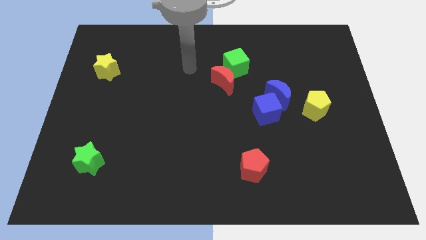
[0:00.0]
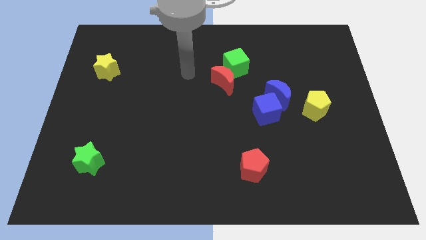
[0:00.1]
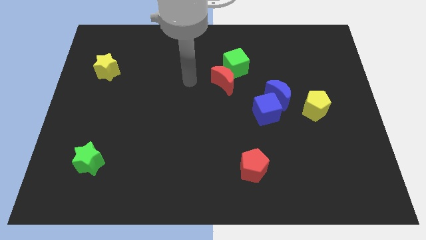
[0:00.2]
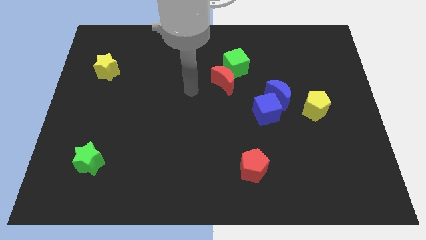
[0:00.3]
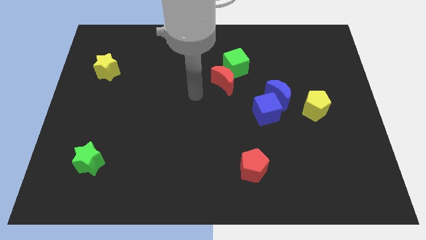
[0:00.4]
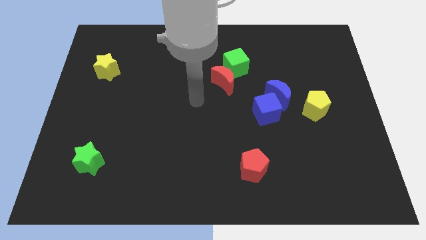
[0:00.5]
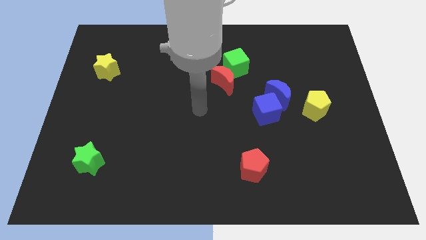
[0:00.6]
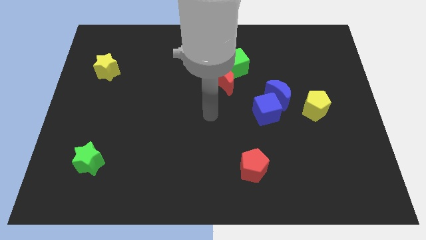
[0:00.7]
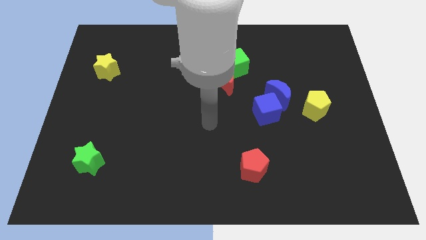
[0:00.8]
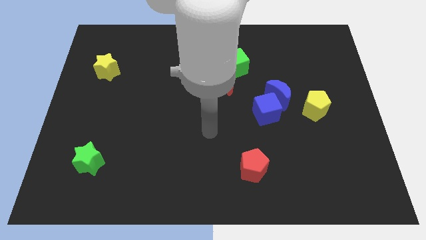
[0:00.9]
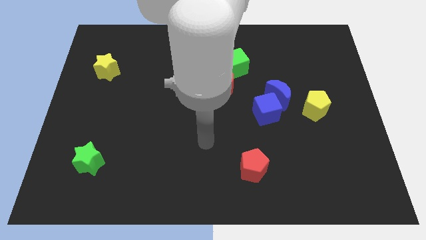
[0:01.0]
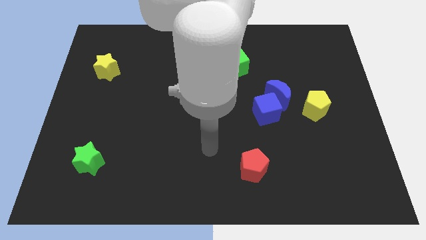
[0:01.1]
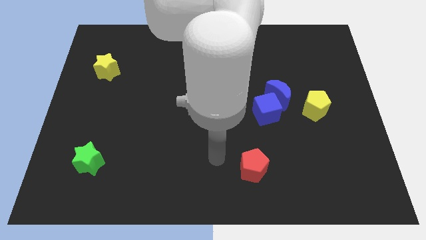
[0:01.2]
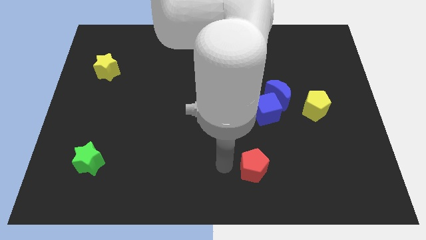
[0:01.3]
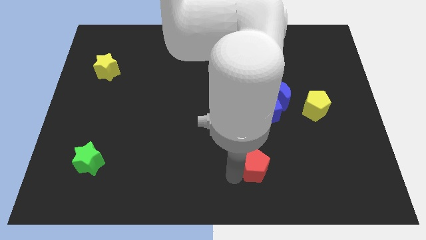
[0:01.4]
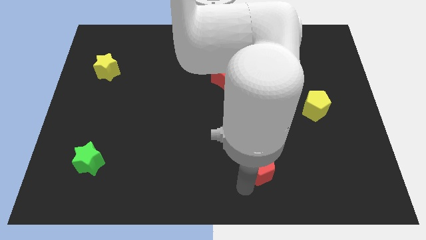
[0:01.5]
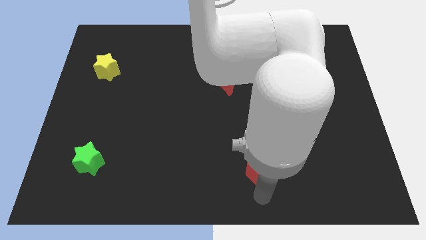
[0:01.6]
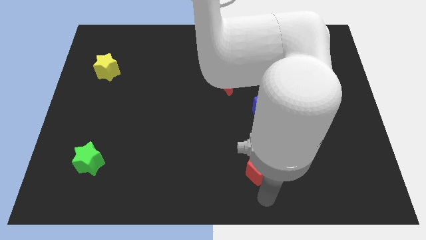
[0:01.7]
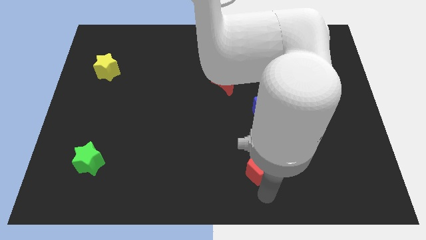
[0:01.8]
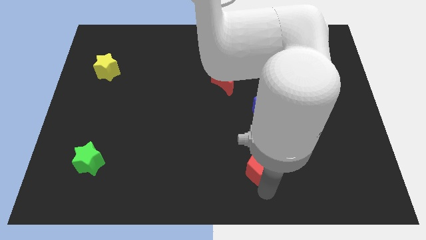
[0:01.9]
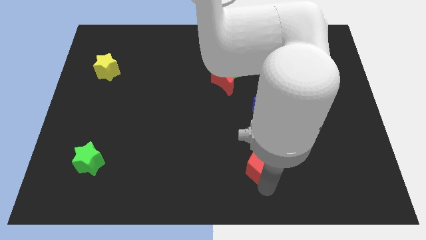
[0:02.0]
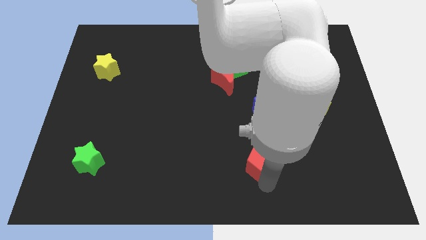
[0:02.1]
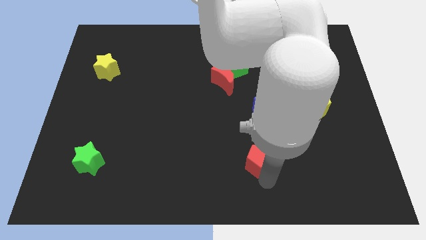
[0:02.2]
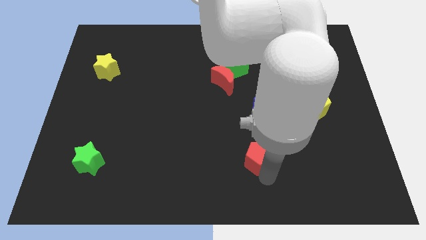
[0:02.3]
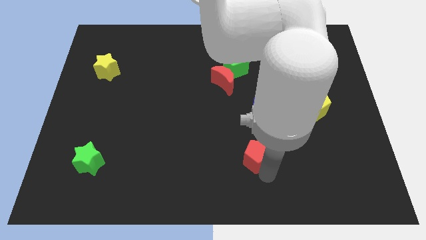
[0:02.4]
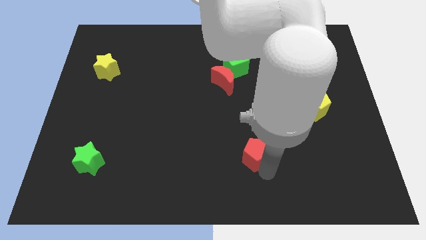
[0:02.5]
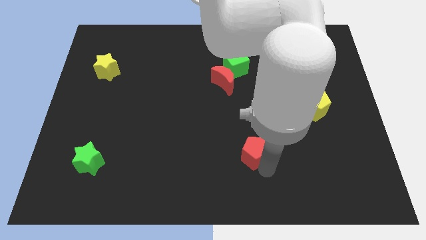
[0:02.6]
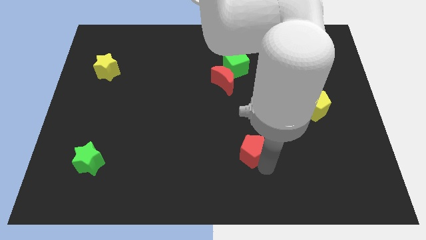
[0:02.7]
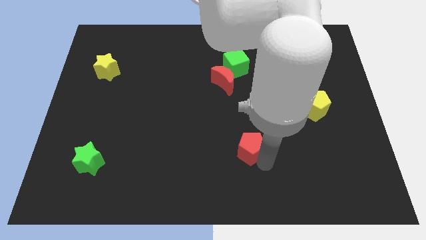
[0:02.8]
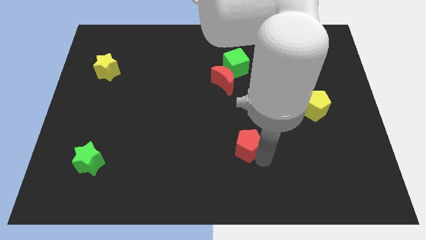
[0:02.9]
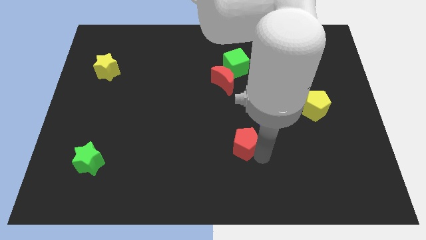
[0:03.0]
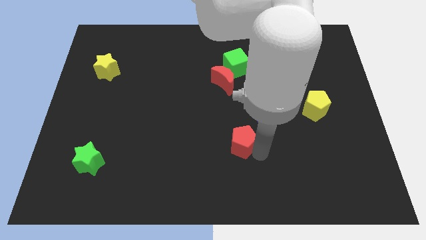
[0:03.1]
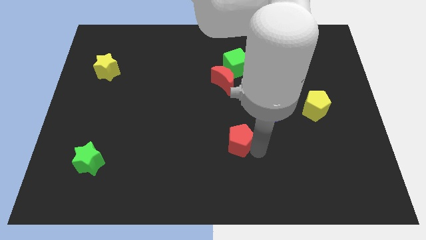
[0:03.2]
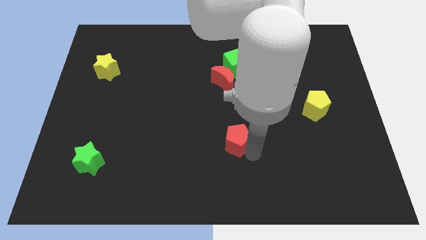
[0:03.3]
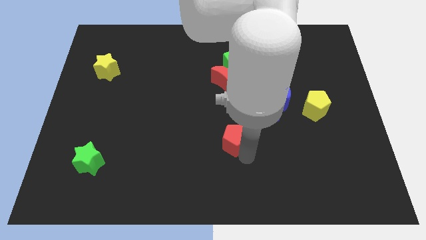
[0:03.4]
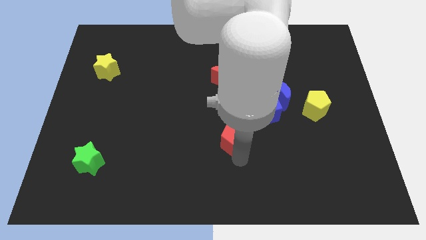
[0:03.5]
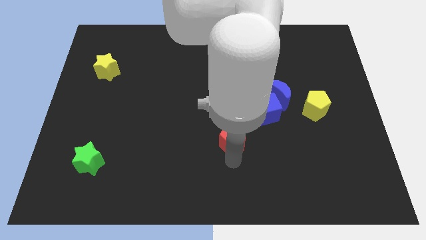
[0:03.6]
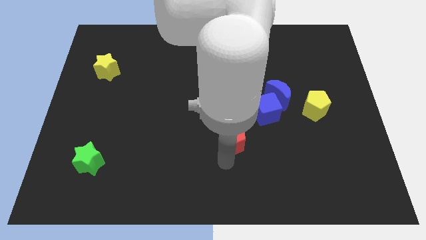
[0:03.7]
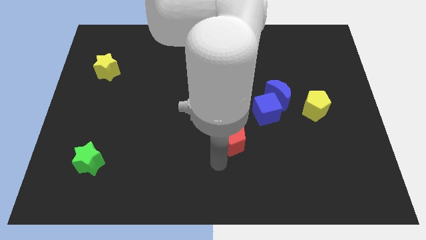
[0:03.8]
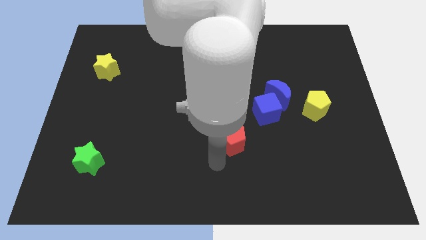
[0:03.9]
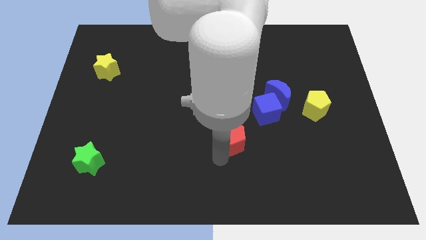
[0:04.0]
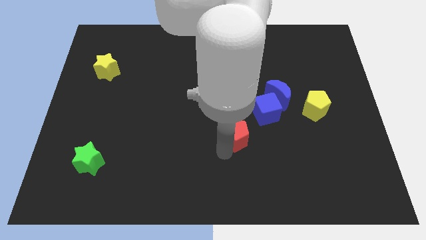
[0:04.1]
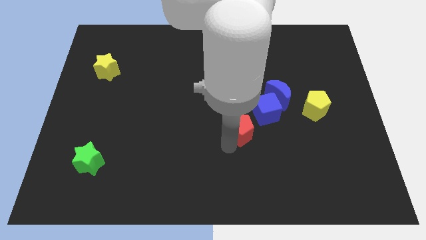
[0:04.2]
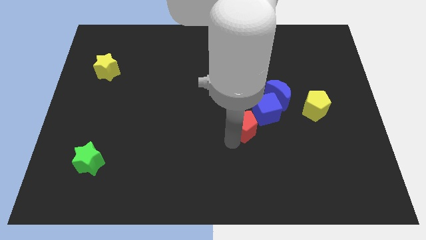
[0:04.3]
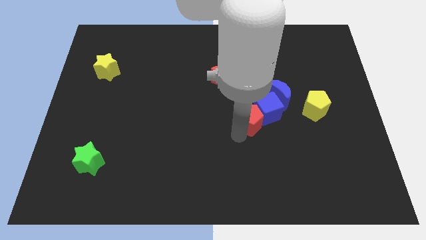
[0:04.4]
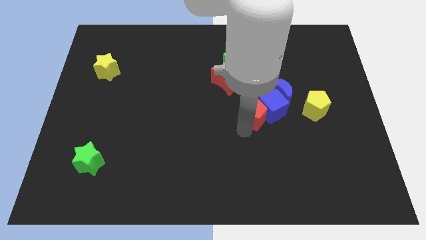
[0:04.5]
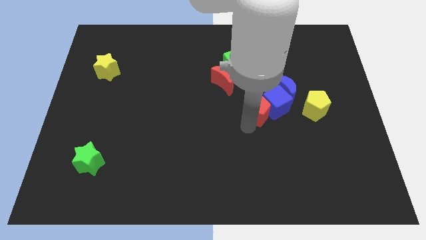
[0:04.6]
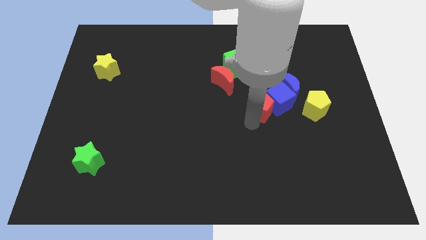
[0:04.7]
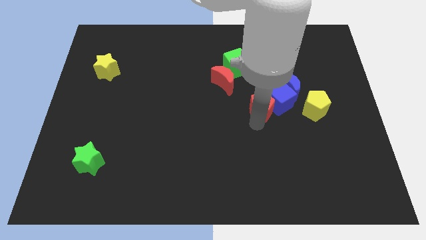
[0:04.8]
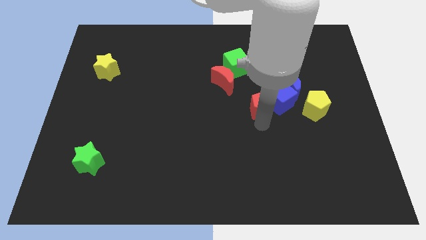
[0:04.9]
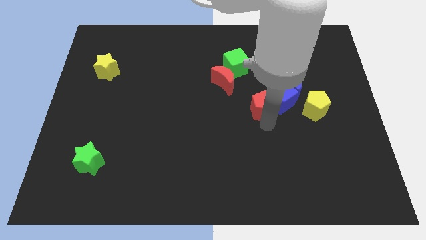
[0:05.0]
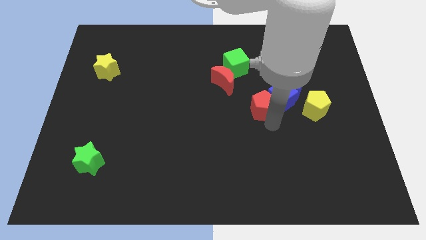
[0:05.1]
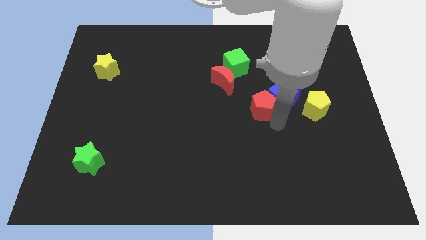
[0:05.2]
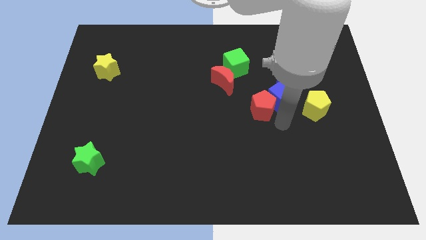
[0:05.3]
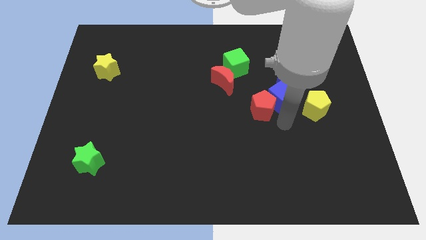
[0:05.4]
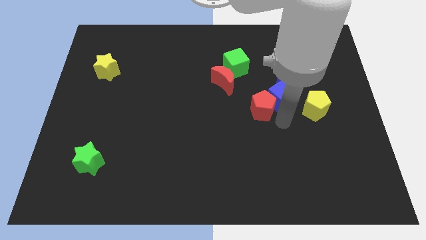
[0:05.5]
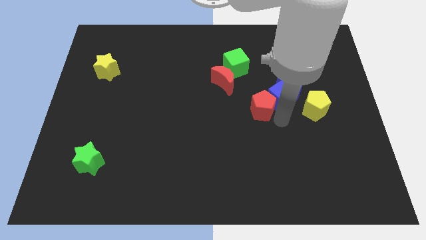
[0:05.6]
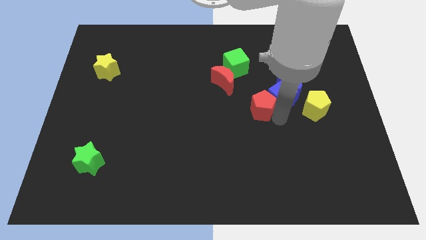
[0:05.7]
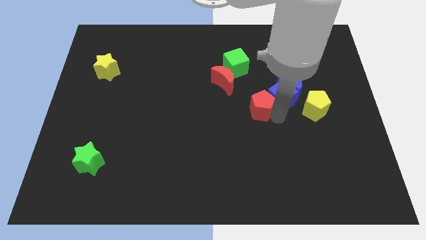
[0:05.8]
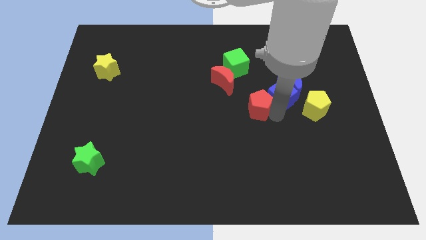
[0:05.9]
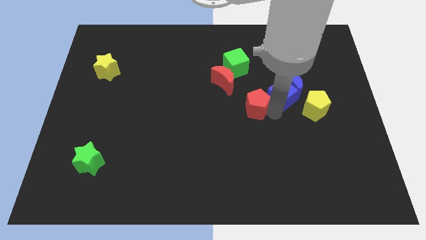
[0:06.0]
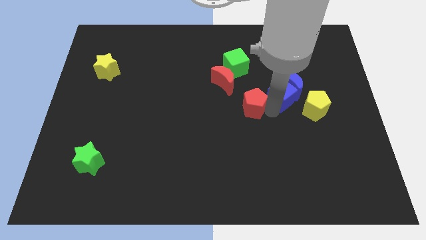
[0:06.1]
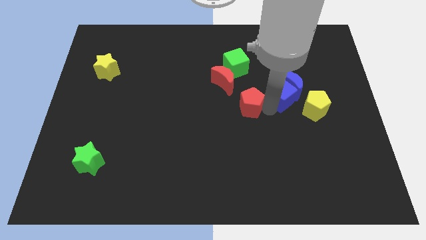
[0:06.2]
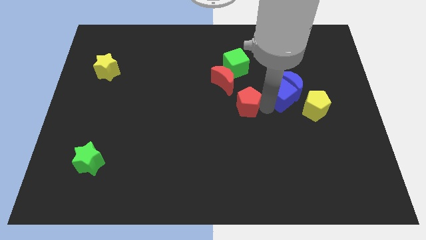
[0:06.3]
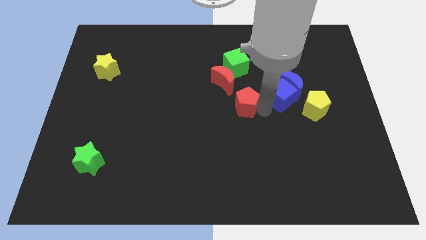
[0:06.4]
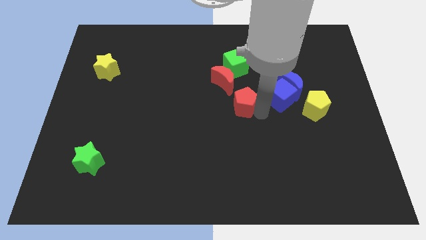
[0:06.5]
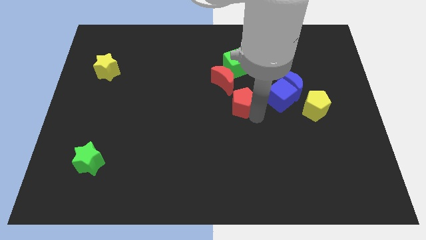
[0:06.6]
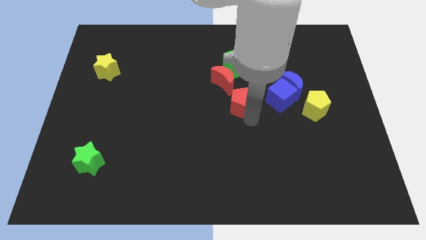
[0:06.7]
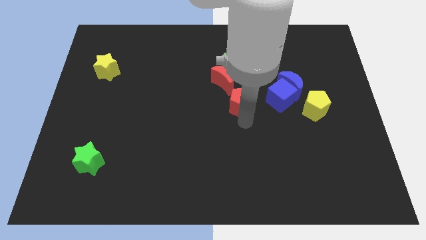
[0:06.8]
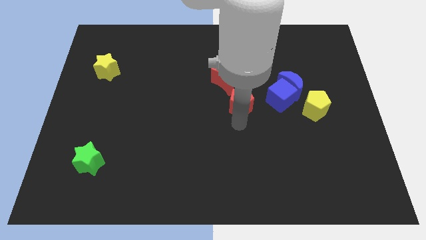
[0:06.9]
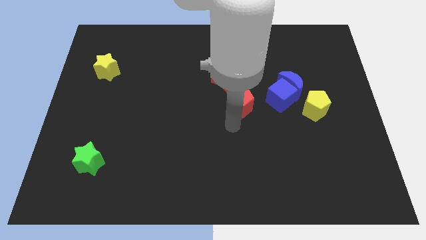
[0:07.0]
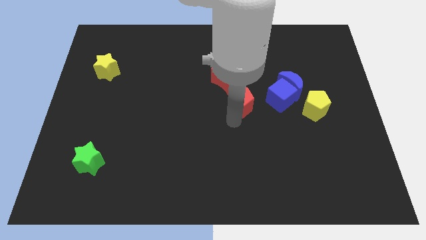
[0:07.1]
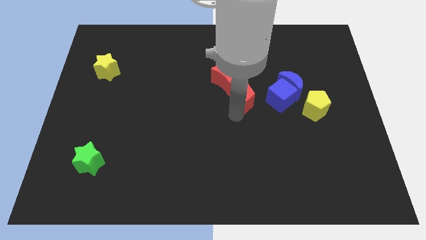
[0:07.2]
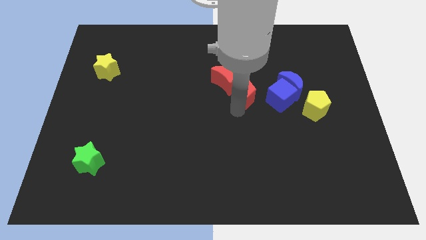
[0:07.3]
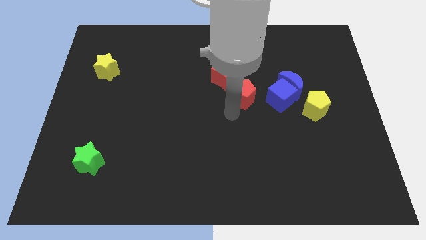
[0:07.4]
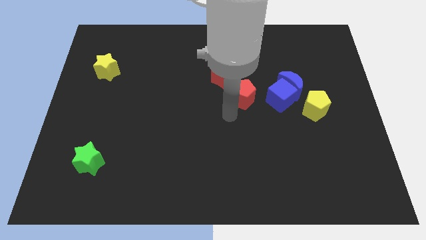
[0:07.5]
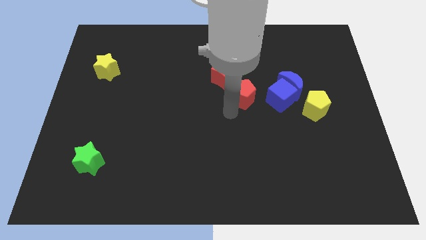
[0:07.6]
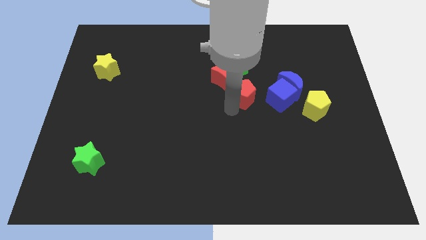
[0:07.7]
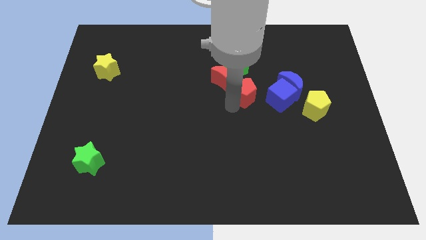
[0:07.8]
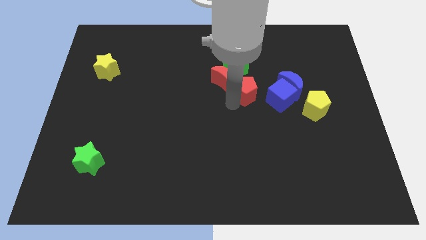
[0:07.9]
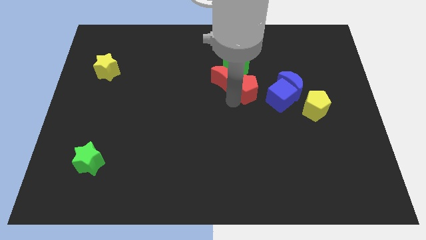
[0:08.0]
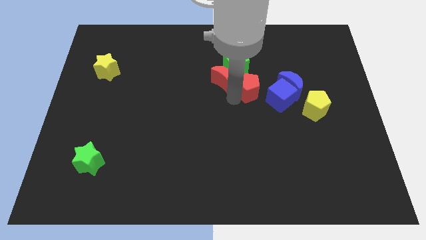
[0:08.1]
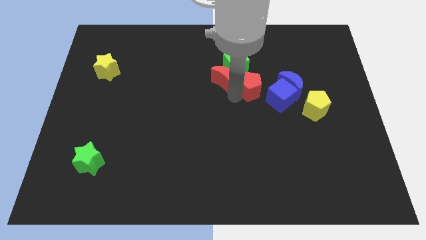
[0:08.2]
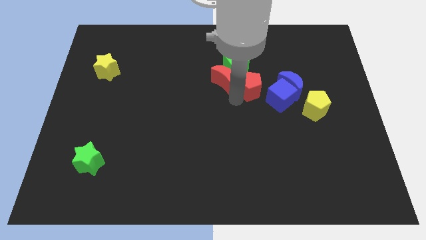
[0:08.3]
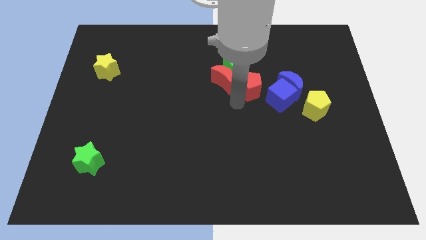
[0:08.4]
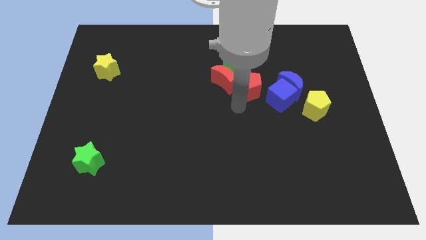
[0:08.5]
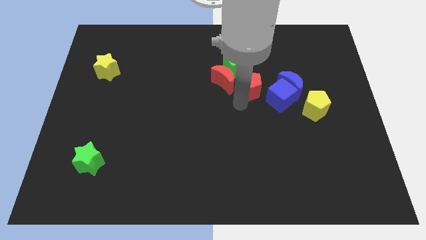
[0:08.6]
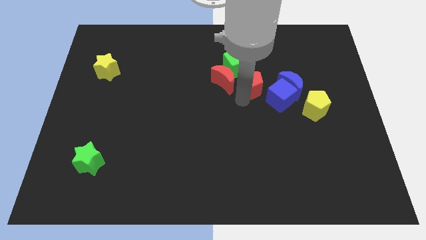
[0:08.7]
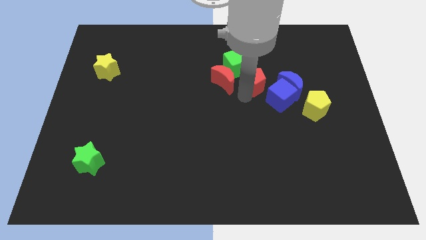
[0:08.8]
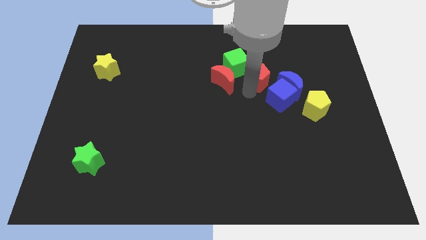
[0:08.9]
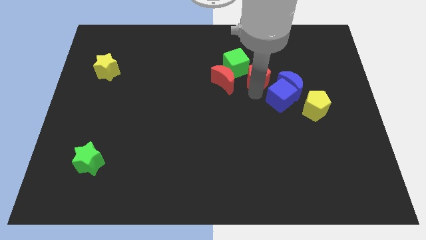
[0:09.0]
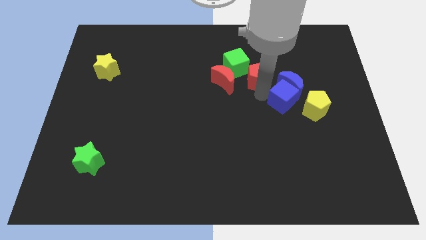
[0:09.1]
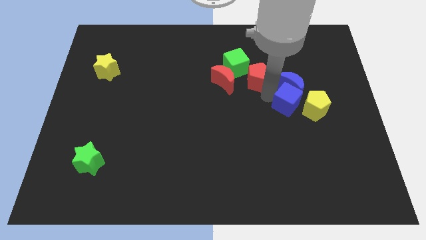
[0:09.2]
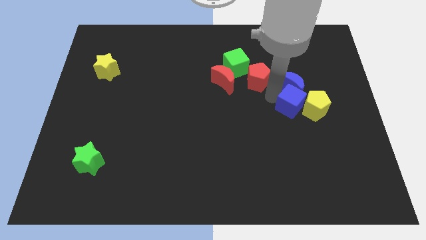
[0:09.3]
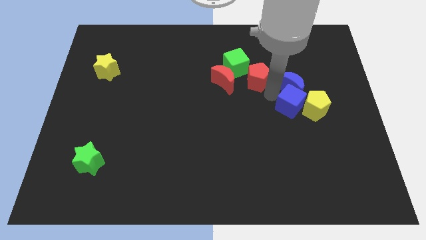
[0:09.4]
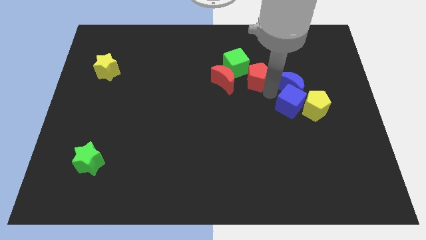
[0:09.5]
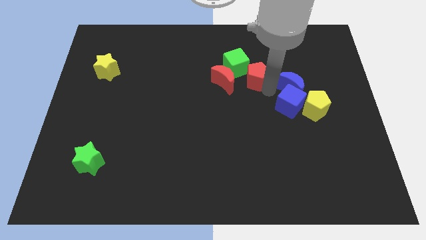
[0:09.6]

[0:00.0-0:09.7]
put the red pentagon to the top right side of the red moon
